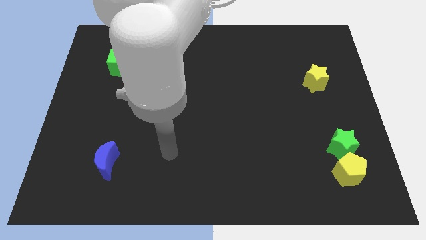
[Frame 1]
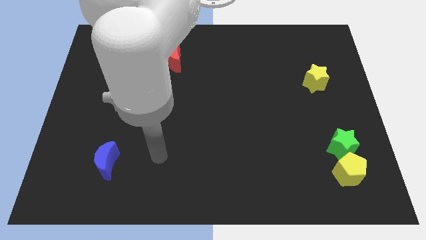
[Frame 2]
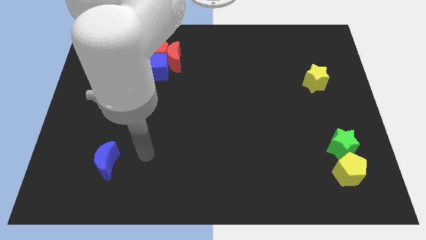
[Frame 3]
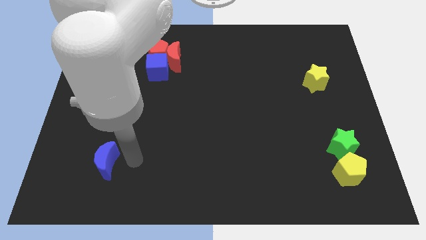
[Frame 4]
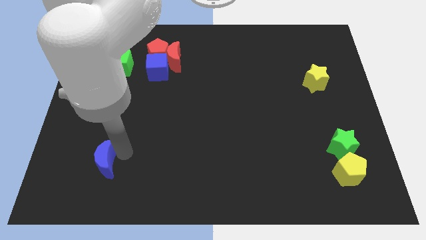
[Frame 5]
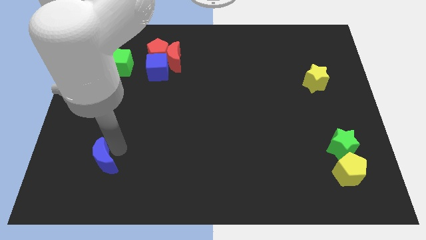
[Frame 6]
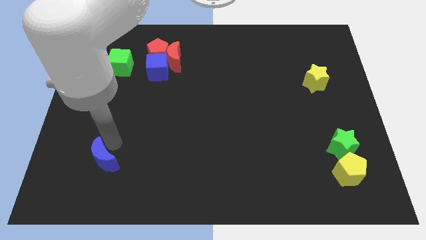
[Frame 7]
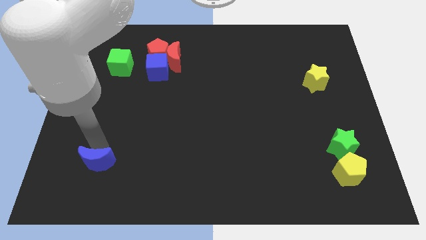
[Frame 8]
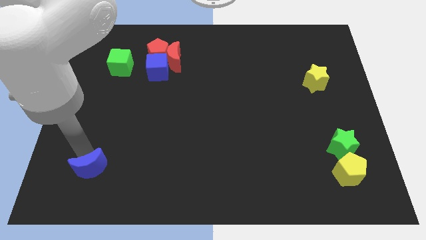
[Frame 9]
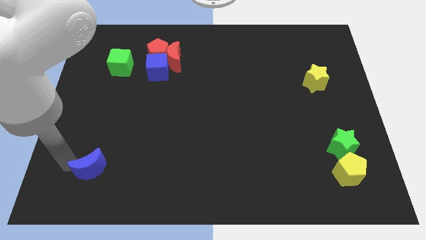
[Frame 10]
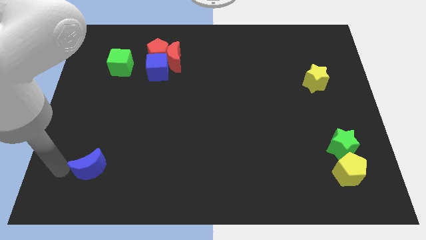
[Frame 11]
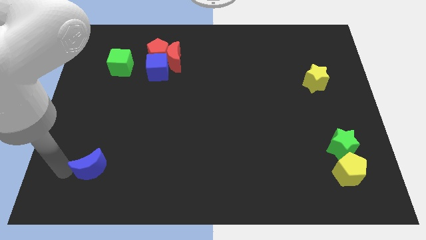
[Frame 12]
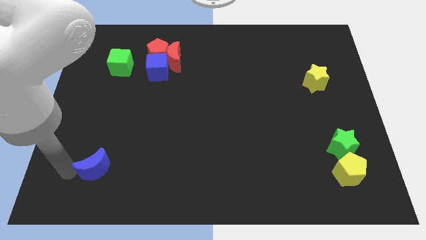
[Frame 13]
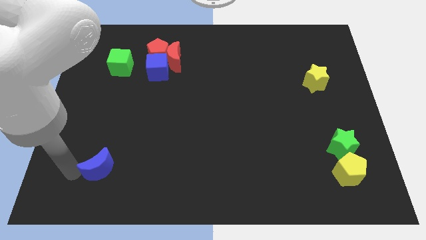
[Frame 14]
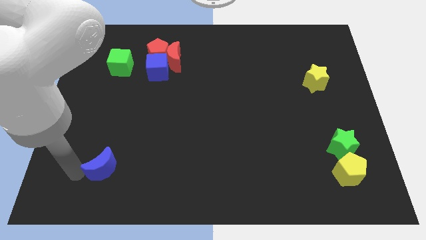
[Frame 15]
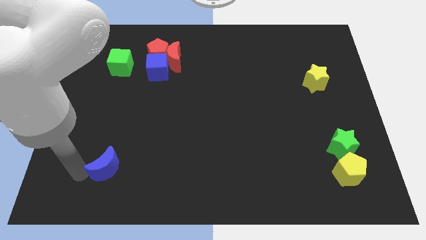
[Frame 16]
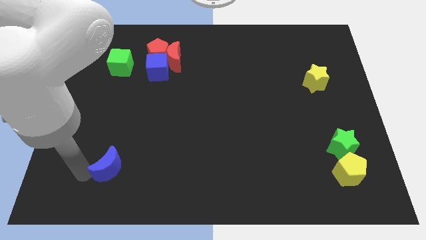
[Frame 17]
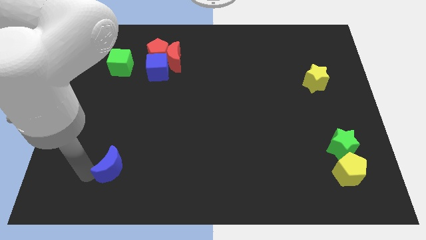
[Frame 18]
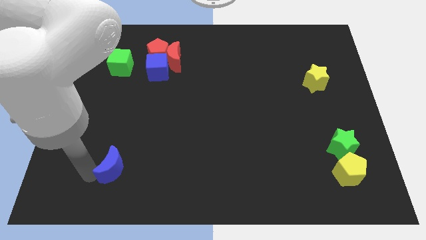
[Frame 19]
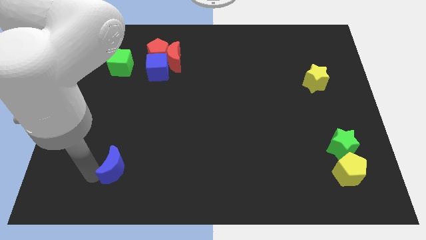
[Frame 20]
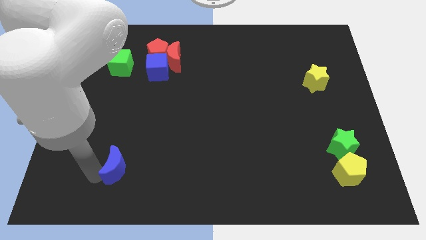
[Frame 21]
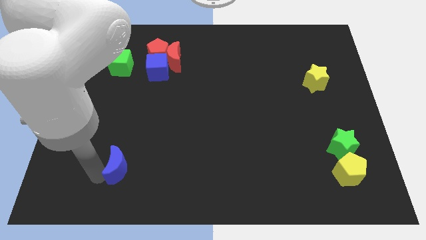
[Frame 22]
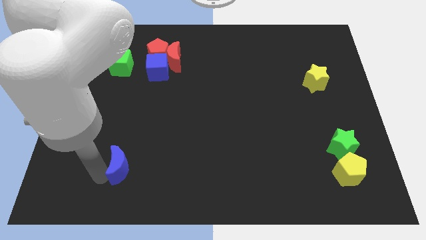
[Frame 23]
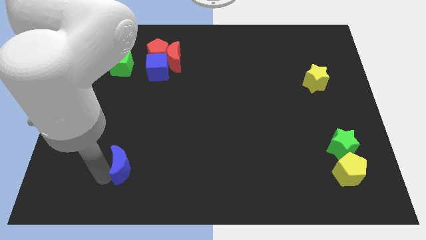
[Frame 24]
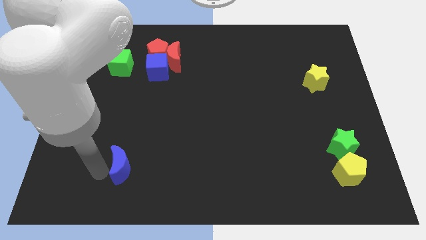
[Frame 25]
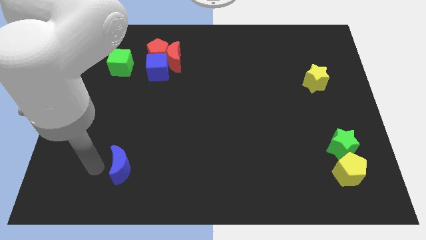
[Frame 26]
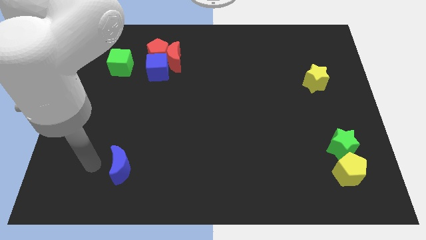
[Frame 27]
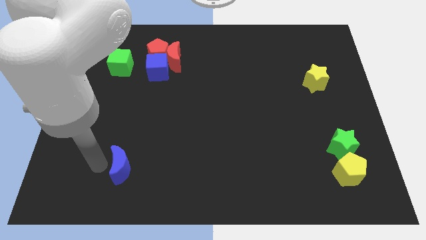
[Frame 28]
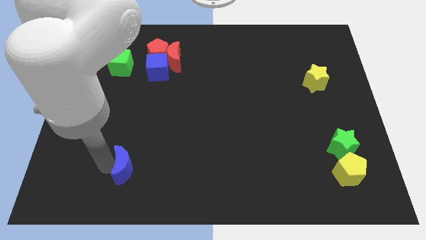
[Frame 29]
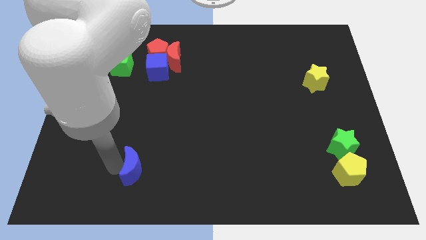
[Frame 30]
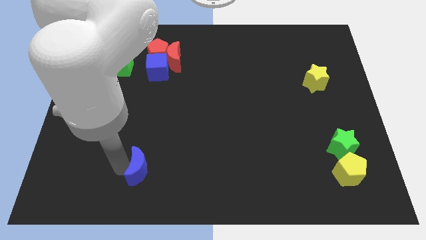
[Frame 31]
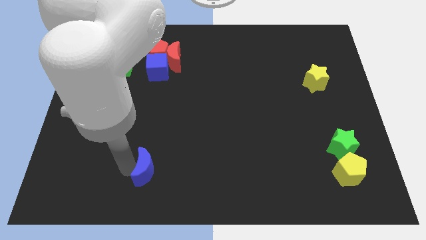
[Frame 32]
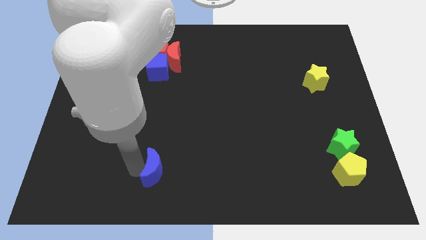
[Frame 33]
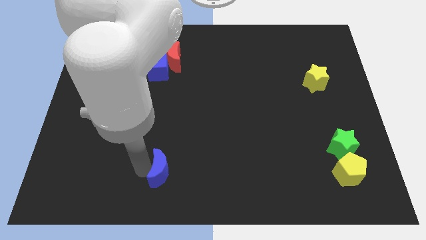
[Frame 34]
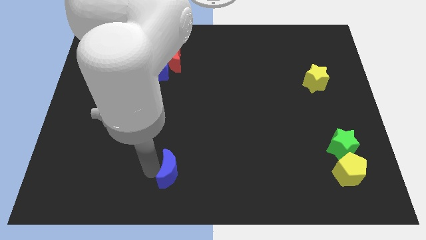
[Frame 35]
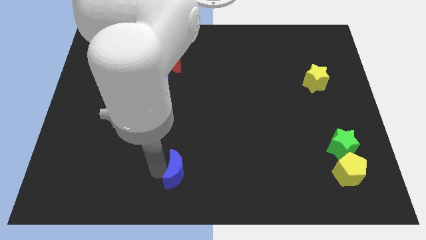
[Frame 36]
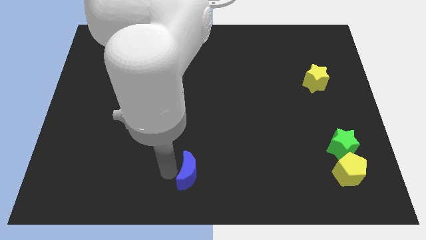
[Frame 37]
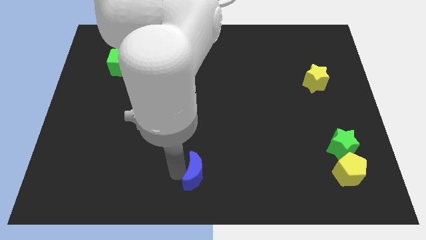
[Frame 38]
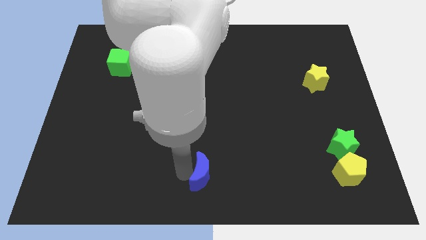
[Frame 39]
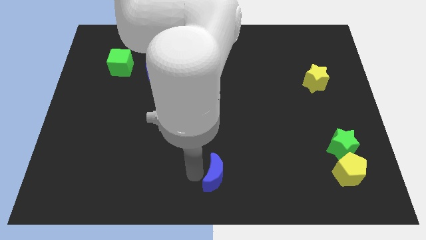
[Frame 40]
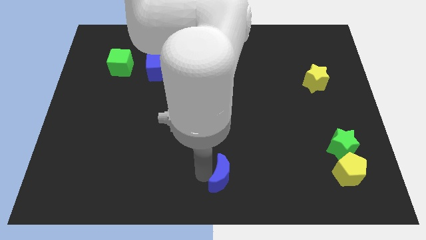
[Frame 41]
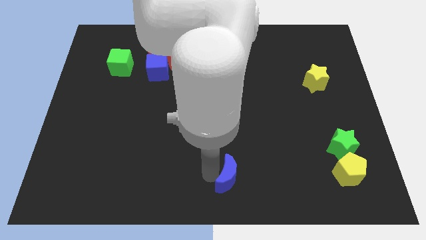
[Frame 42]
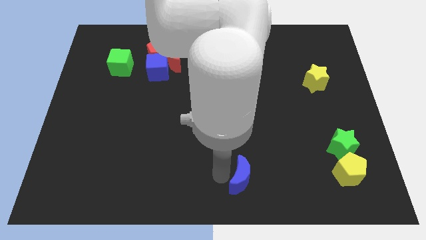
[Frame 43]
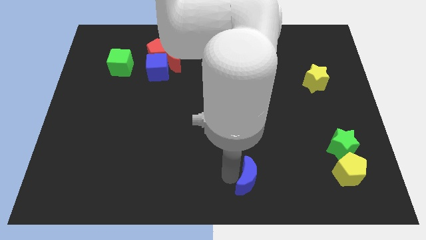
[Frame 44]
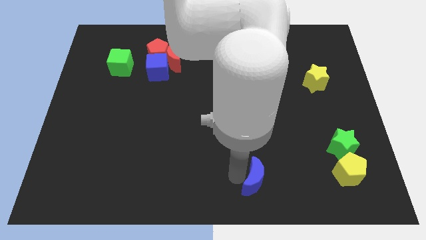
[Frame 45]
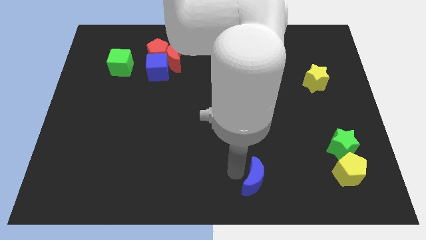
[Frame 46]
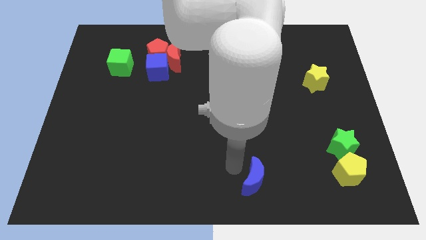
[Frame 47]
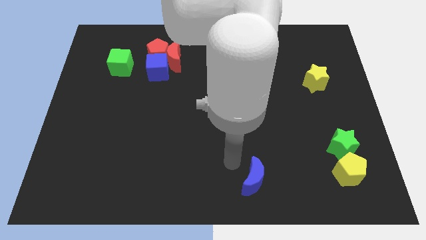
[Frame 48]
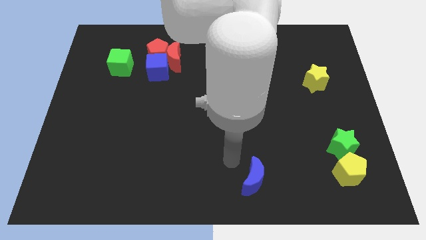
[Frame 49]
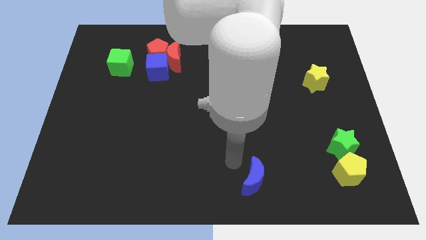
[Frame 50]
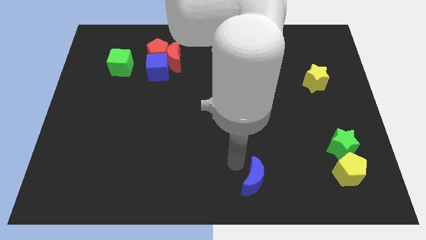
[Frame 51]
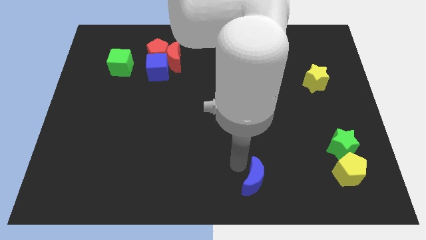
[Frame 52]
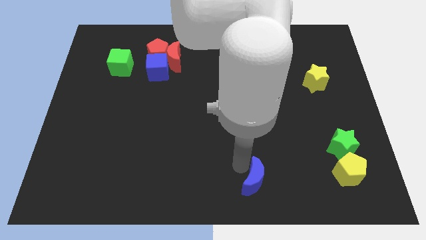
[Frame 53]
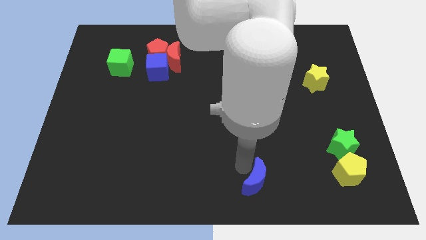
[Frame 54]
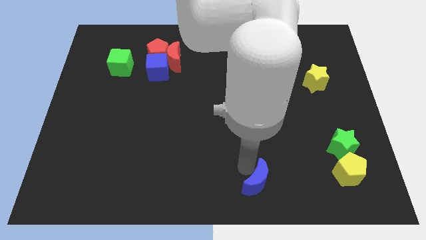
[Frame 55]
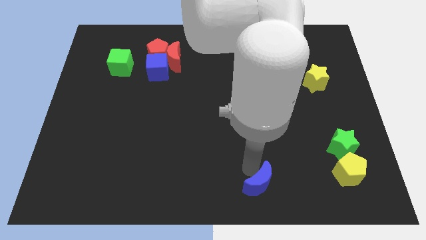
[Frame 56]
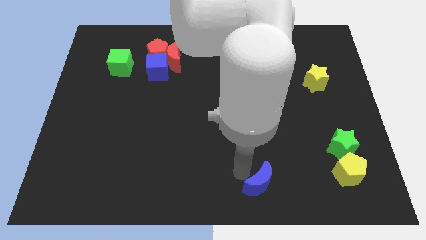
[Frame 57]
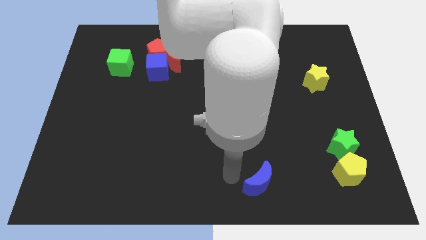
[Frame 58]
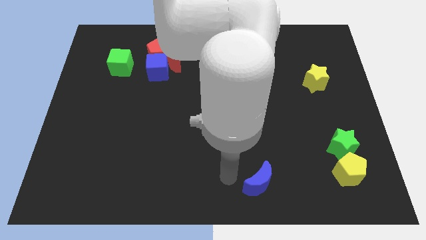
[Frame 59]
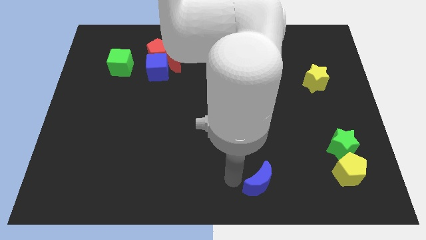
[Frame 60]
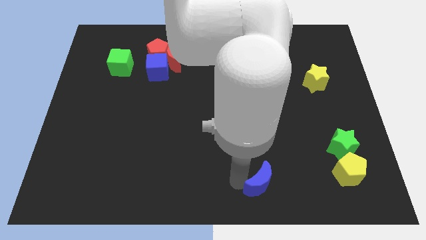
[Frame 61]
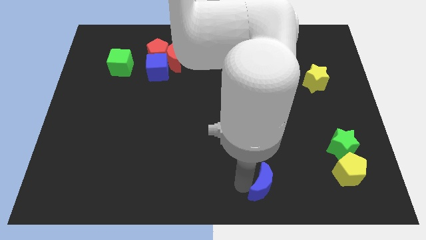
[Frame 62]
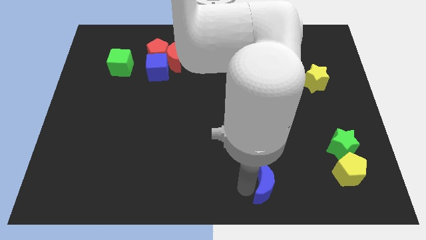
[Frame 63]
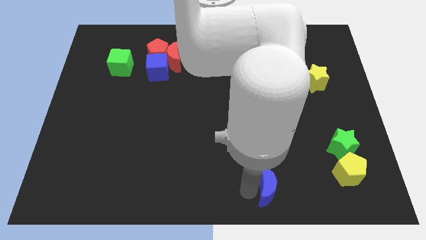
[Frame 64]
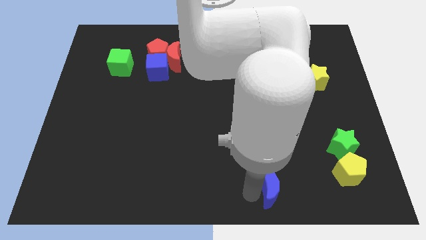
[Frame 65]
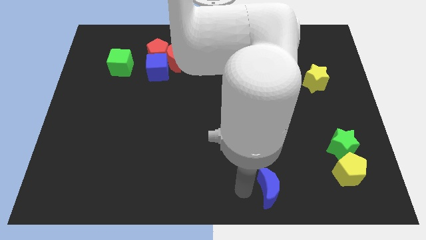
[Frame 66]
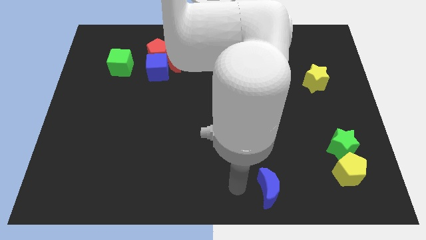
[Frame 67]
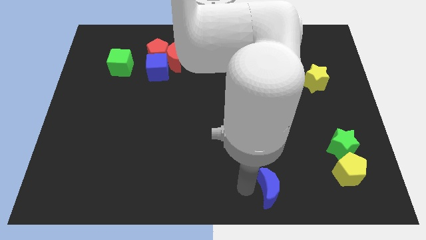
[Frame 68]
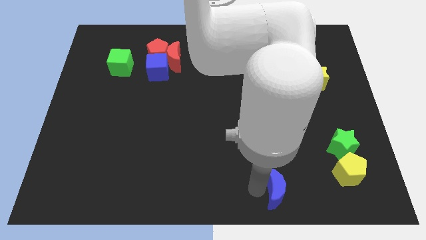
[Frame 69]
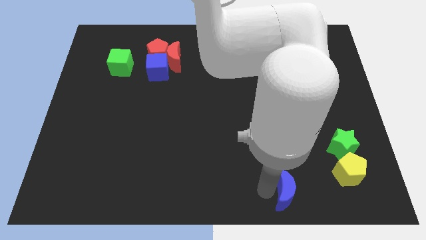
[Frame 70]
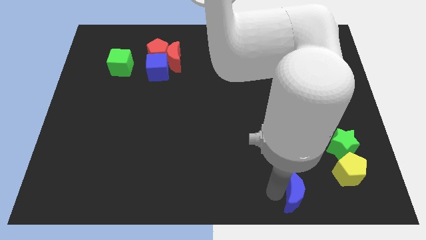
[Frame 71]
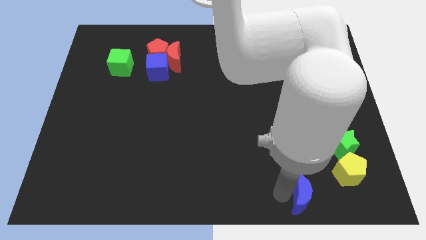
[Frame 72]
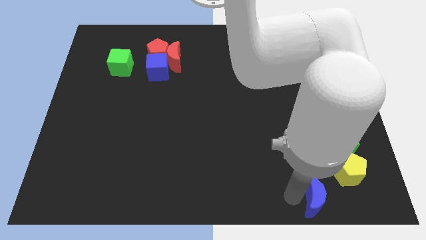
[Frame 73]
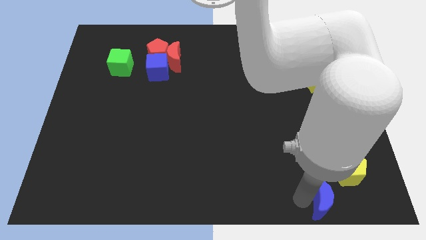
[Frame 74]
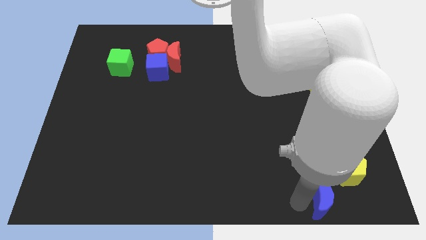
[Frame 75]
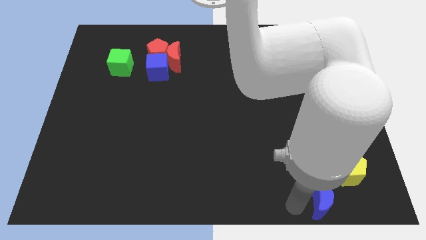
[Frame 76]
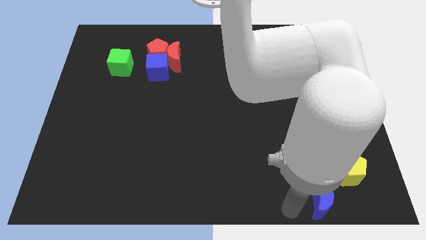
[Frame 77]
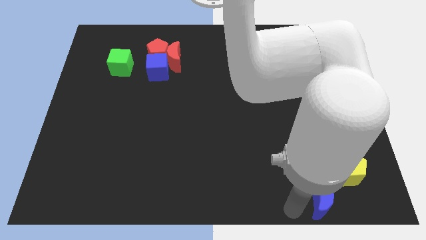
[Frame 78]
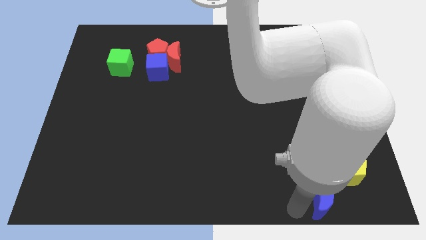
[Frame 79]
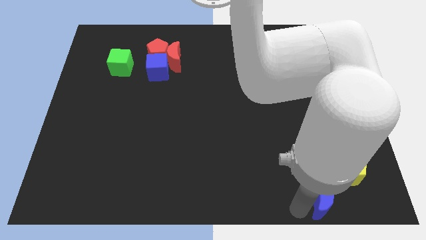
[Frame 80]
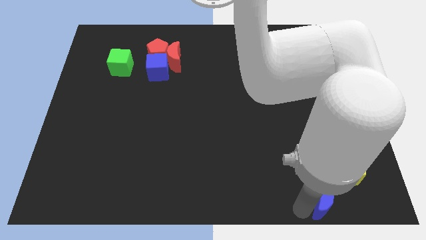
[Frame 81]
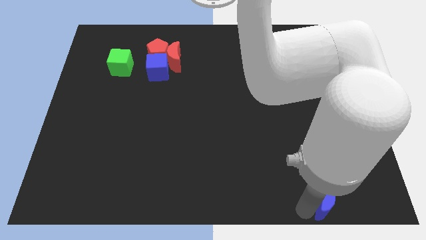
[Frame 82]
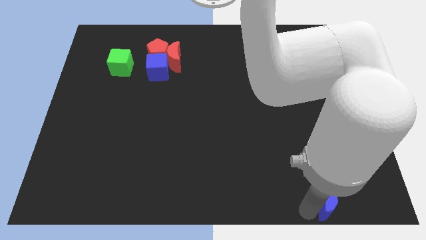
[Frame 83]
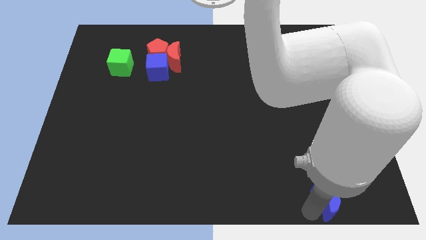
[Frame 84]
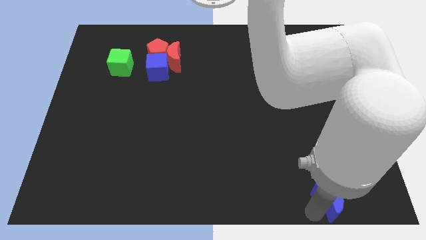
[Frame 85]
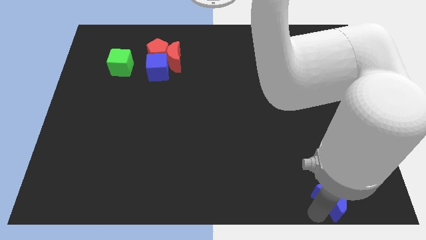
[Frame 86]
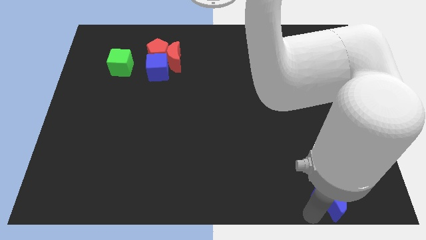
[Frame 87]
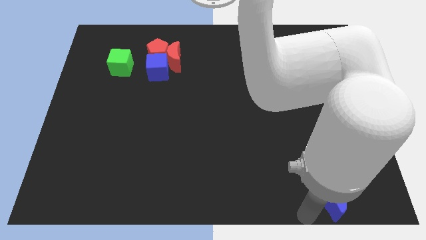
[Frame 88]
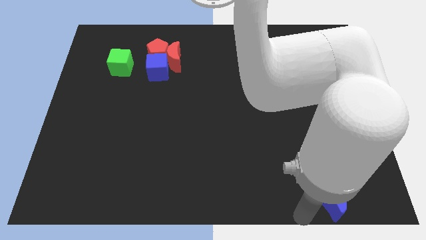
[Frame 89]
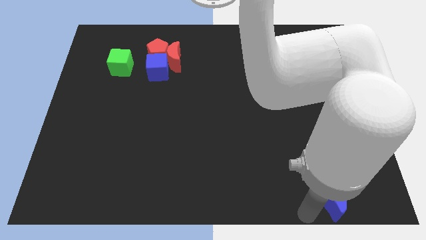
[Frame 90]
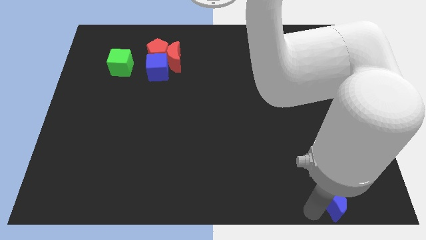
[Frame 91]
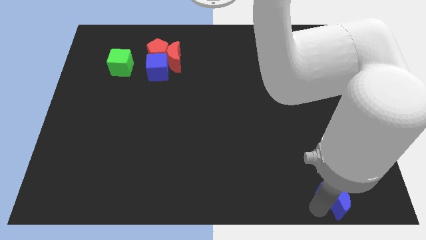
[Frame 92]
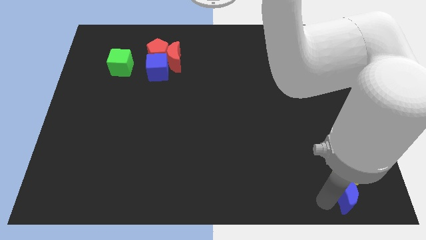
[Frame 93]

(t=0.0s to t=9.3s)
move the blue moon to the bottom right of the board
